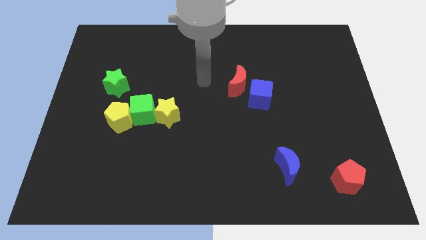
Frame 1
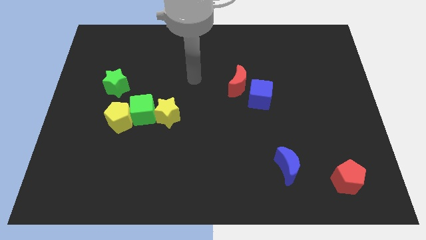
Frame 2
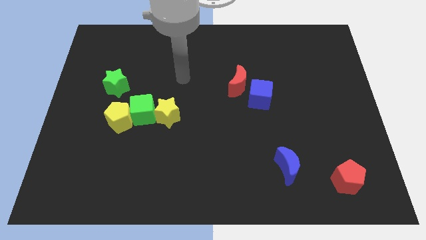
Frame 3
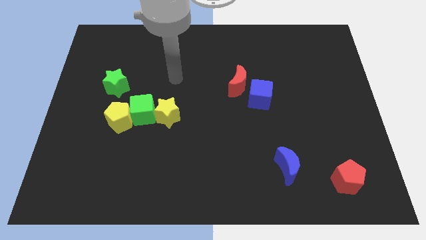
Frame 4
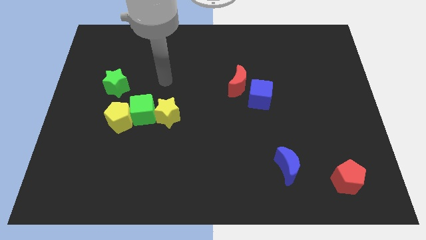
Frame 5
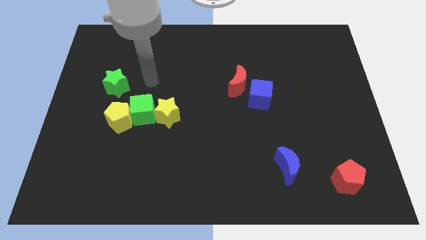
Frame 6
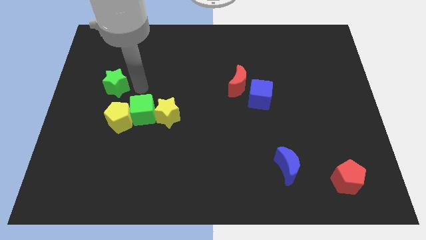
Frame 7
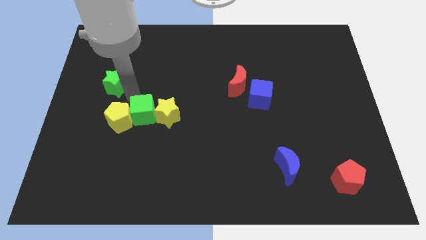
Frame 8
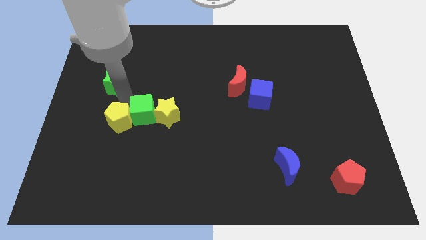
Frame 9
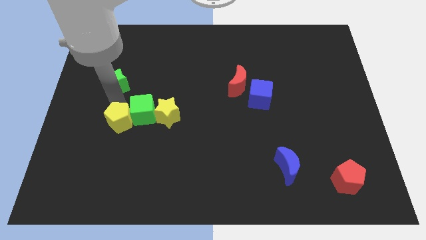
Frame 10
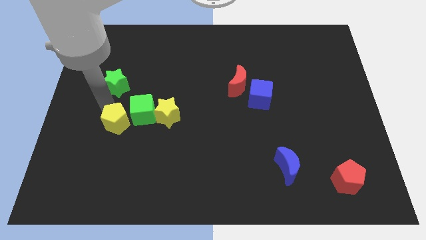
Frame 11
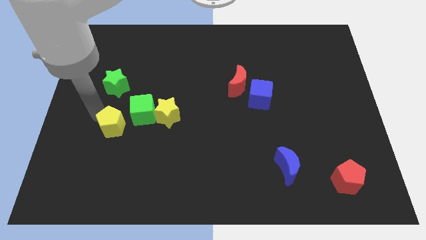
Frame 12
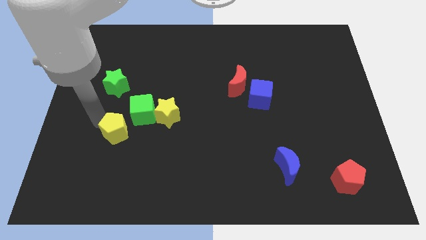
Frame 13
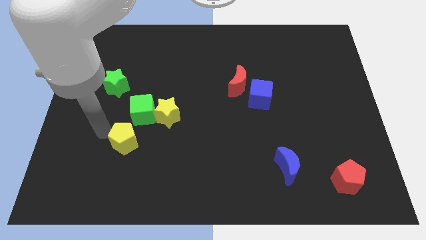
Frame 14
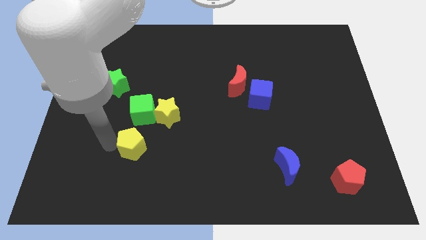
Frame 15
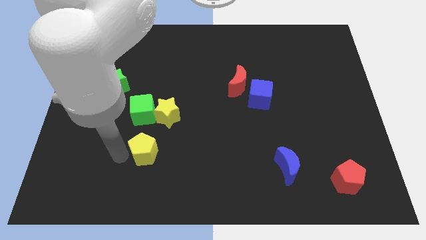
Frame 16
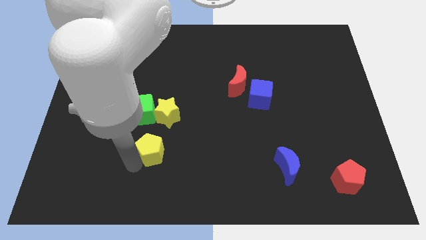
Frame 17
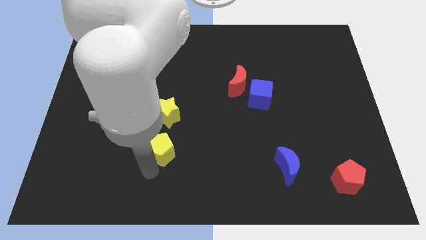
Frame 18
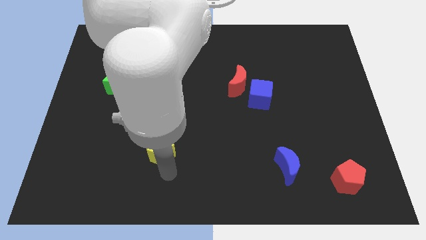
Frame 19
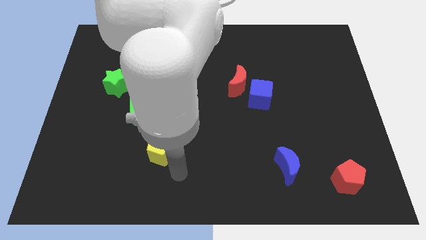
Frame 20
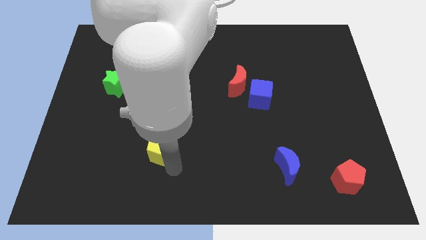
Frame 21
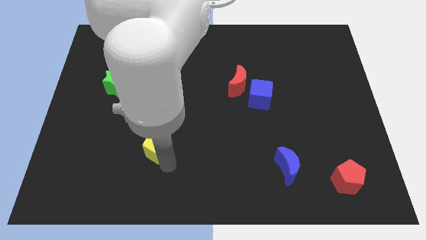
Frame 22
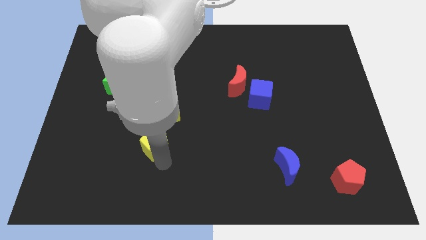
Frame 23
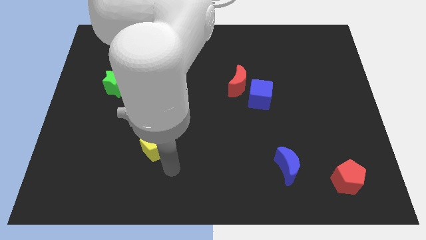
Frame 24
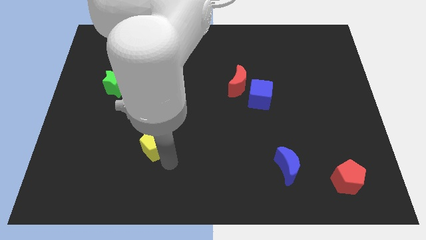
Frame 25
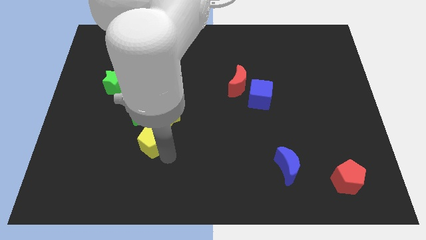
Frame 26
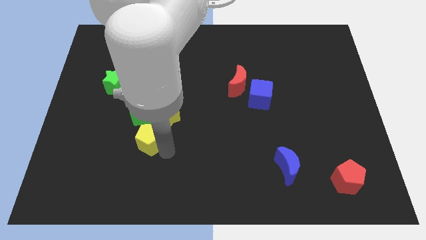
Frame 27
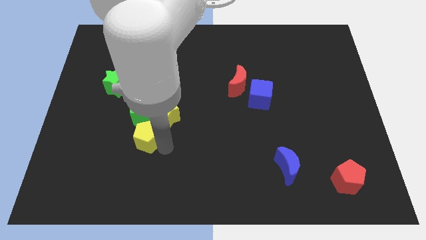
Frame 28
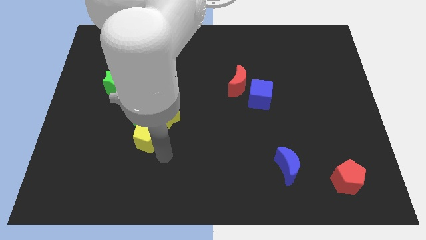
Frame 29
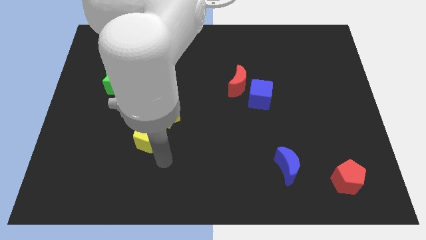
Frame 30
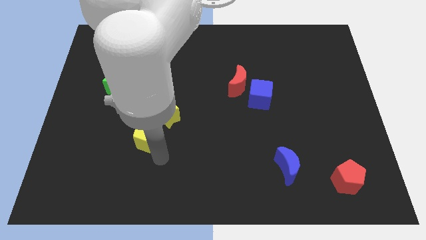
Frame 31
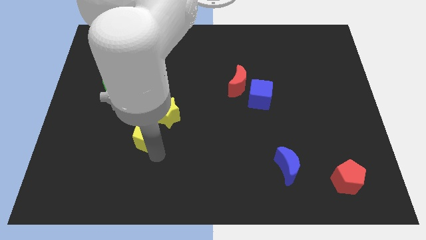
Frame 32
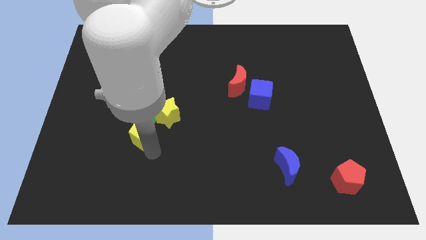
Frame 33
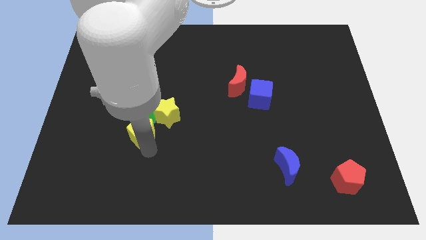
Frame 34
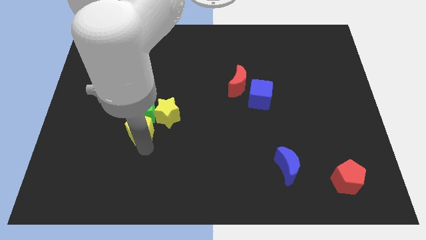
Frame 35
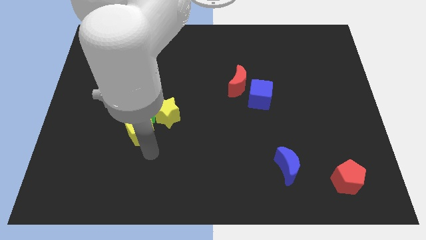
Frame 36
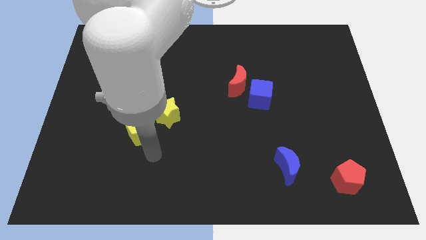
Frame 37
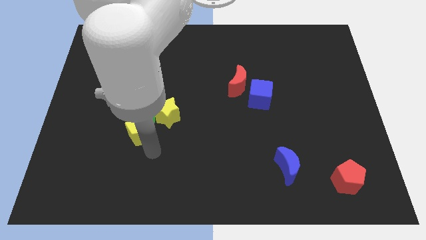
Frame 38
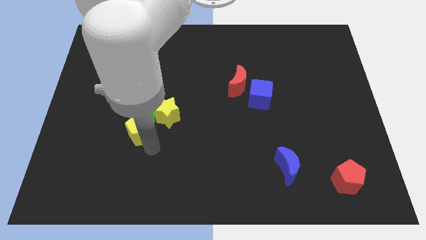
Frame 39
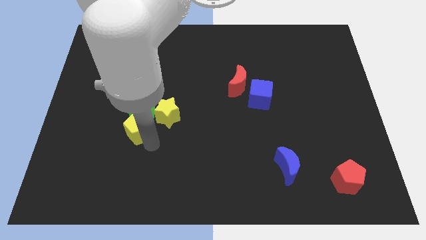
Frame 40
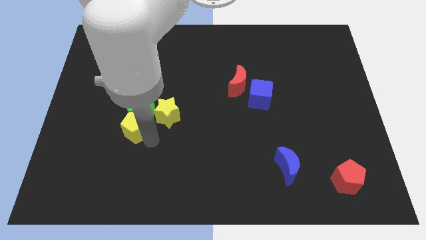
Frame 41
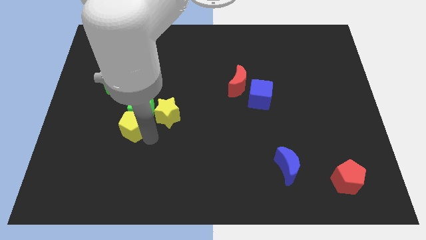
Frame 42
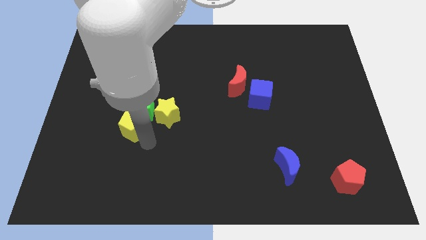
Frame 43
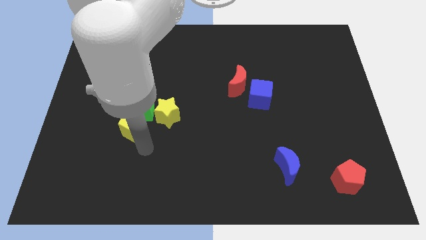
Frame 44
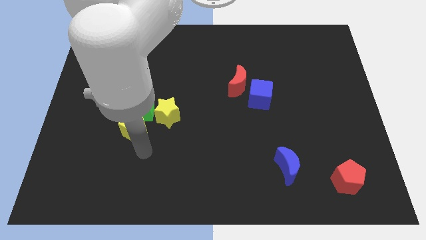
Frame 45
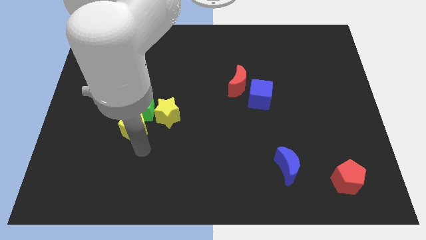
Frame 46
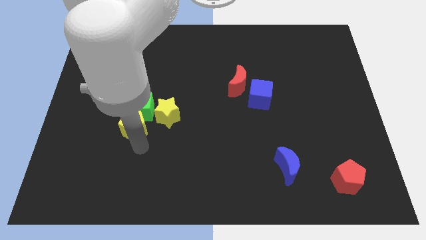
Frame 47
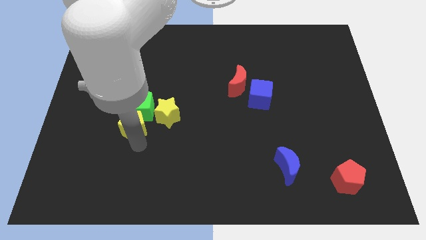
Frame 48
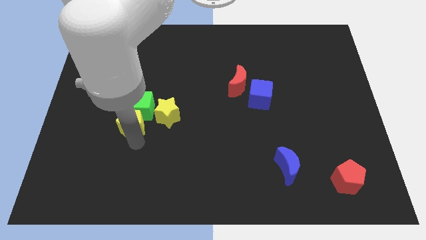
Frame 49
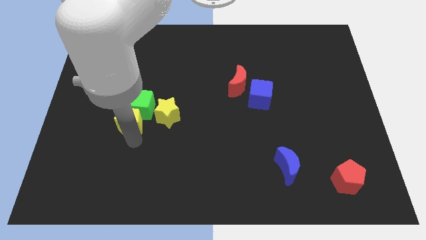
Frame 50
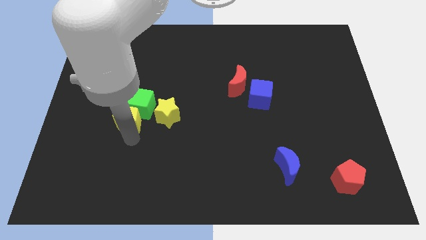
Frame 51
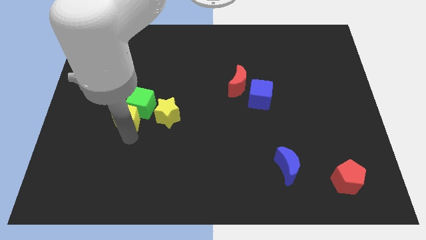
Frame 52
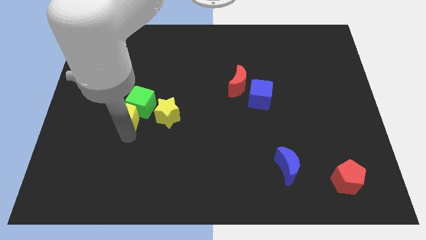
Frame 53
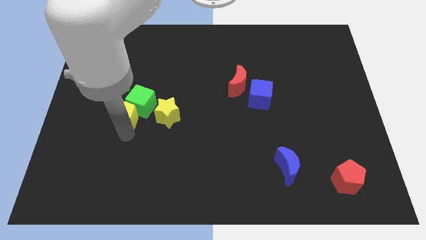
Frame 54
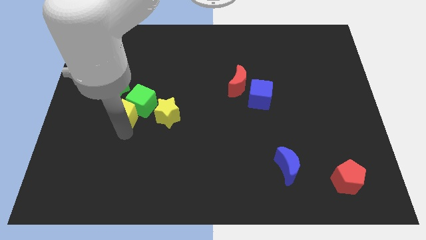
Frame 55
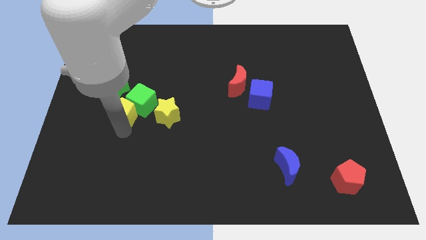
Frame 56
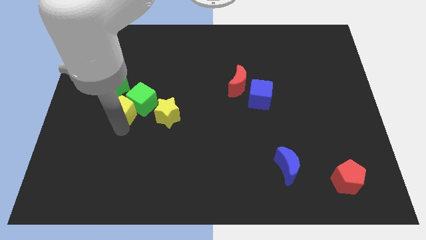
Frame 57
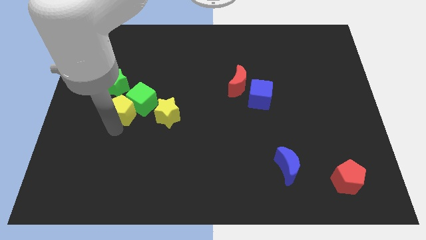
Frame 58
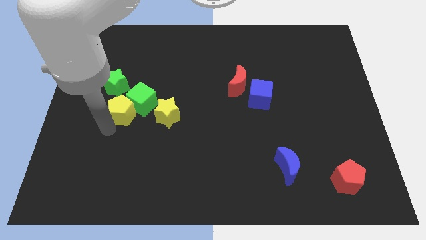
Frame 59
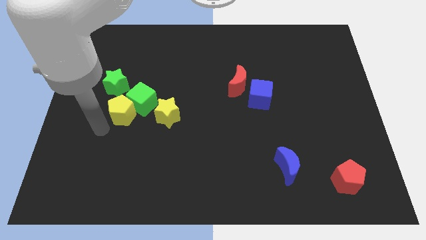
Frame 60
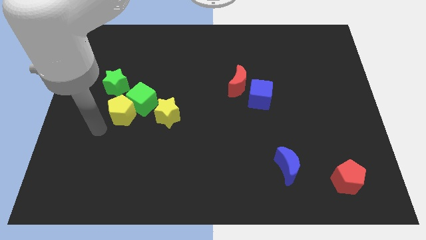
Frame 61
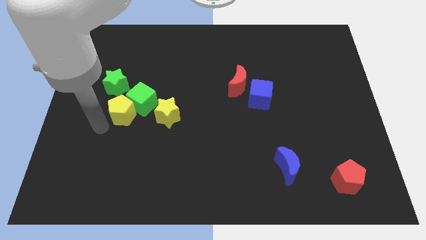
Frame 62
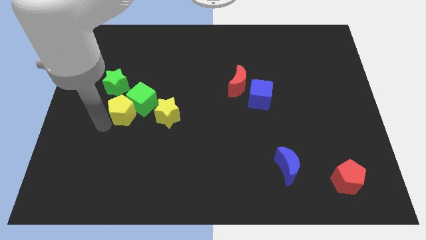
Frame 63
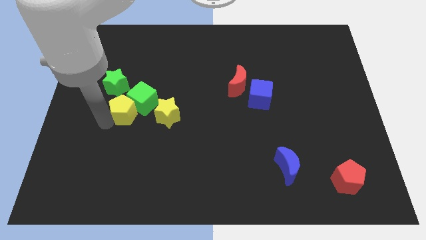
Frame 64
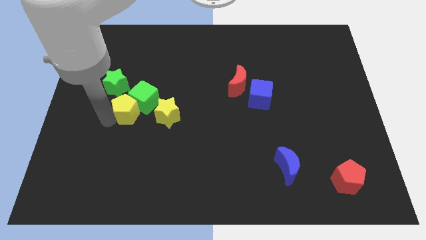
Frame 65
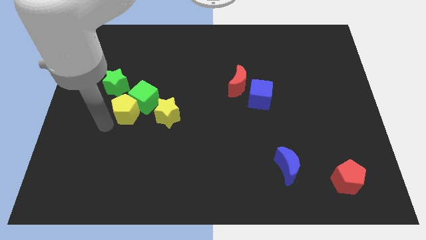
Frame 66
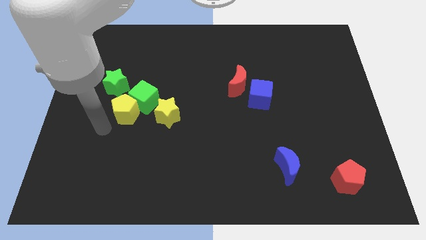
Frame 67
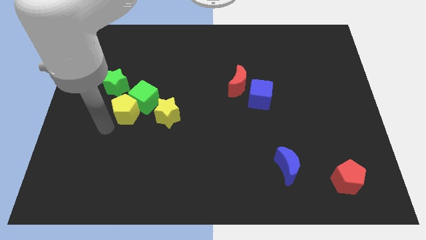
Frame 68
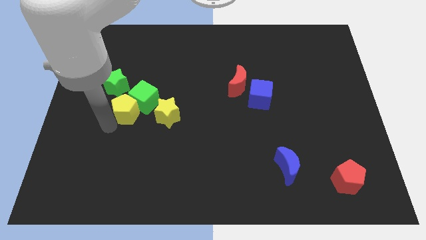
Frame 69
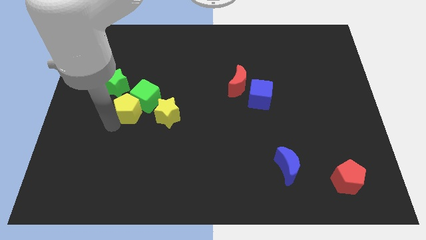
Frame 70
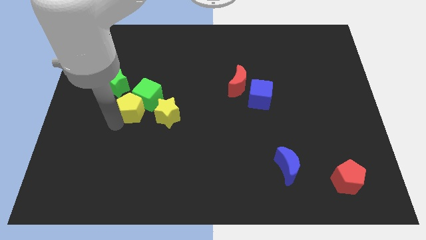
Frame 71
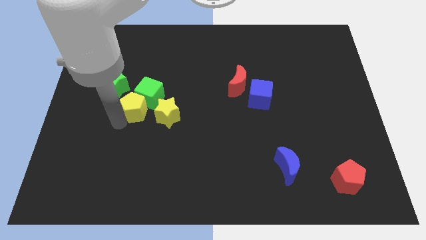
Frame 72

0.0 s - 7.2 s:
slide the yellow pentagon to the top left of the yellow star
